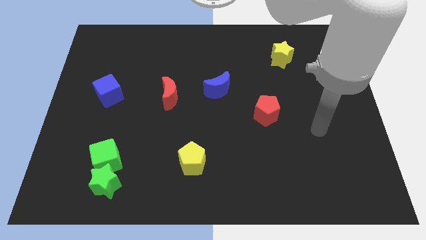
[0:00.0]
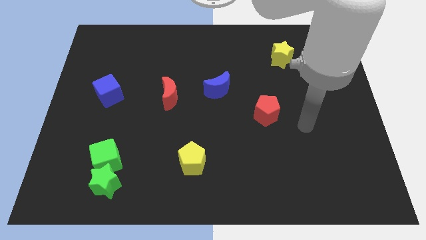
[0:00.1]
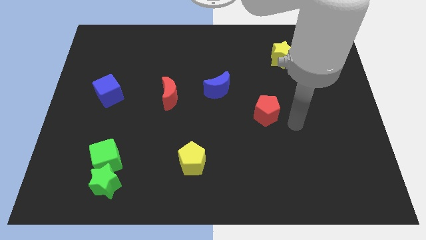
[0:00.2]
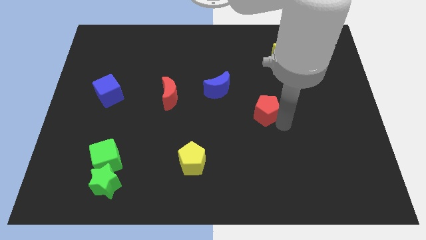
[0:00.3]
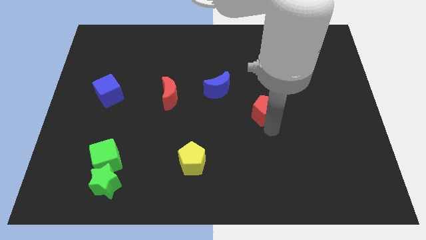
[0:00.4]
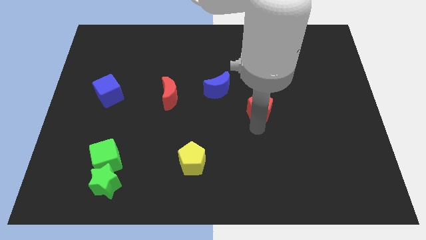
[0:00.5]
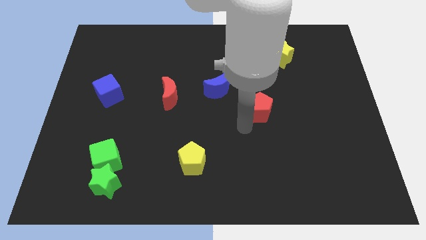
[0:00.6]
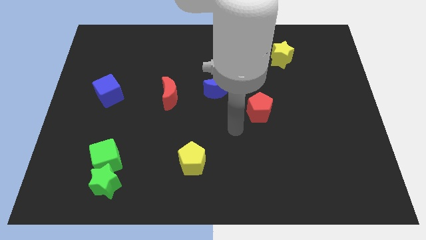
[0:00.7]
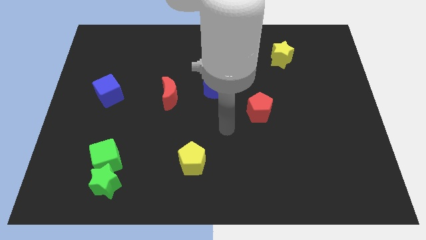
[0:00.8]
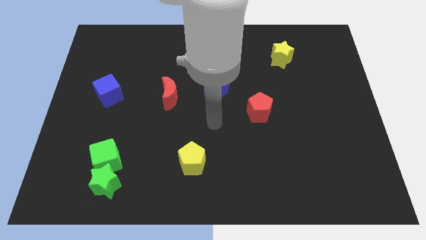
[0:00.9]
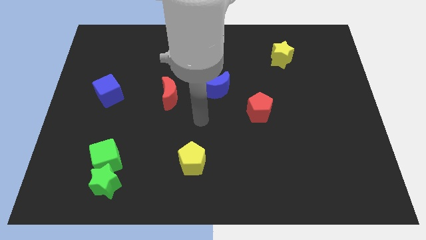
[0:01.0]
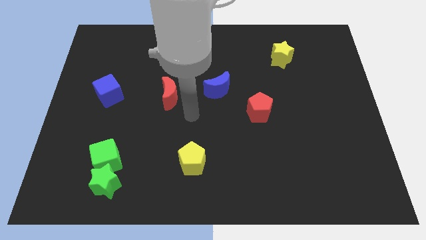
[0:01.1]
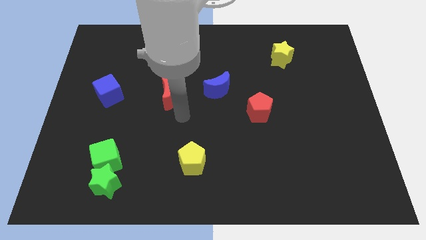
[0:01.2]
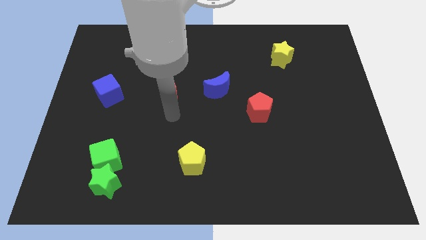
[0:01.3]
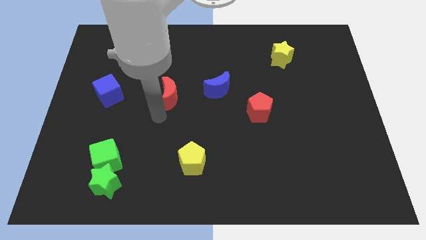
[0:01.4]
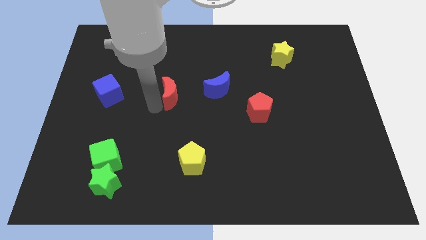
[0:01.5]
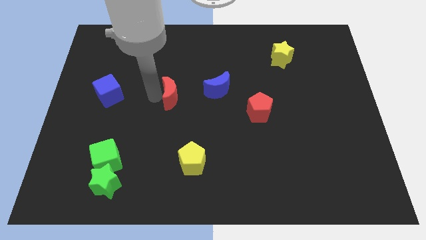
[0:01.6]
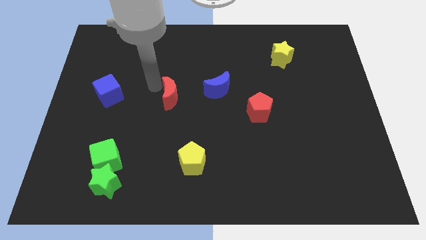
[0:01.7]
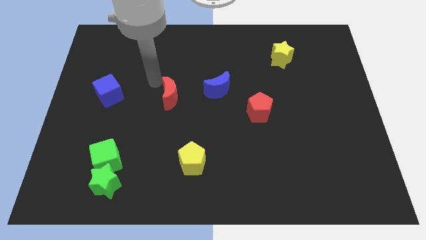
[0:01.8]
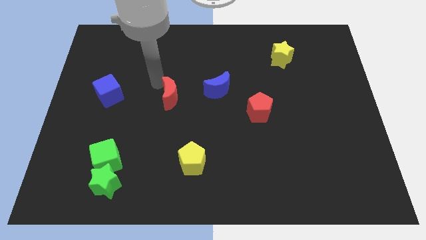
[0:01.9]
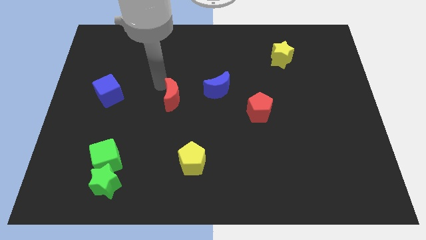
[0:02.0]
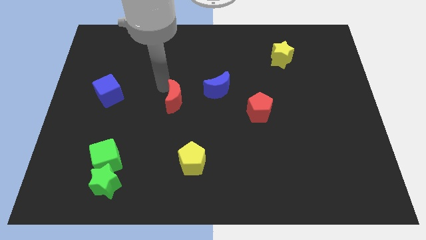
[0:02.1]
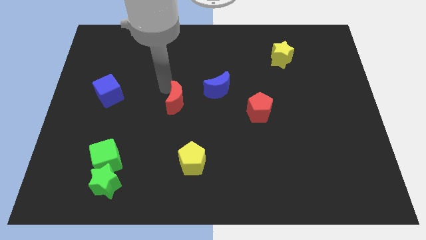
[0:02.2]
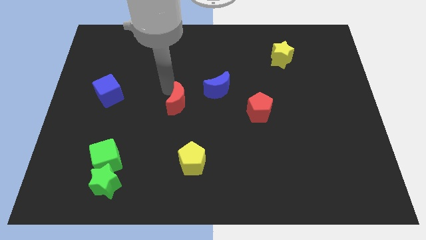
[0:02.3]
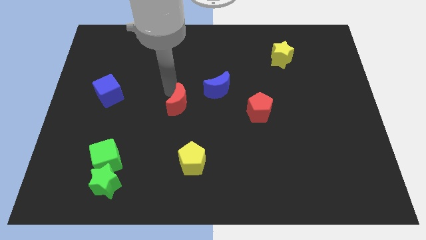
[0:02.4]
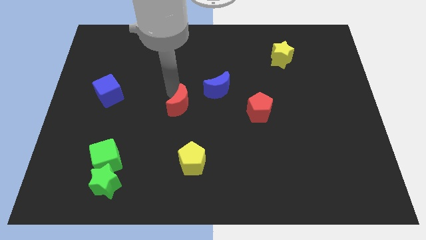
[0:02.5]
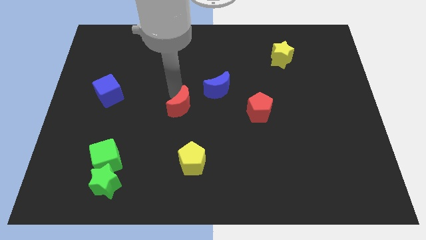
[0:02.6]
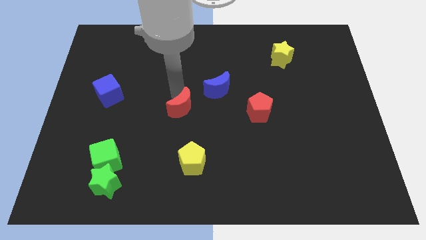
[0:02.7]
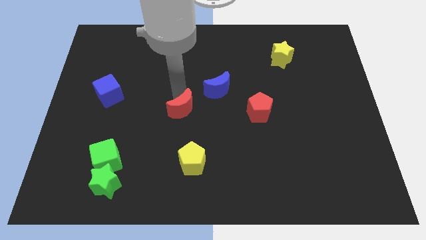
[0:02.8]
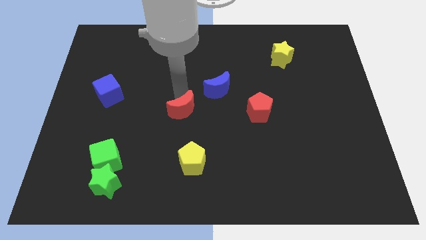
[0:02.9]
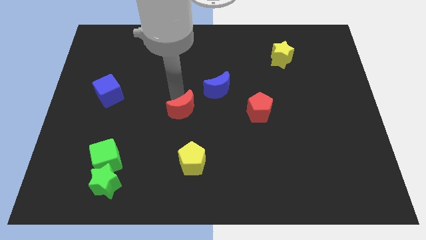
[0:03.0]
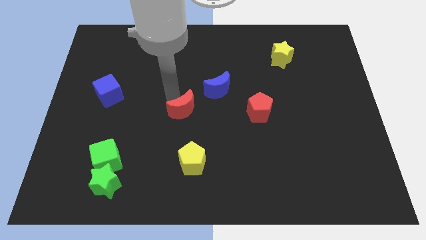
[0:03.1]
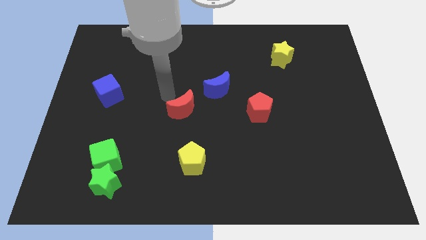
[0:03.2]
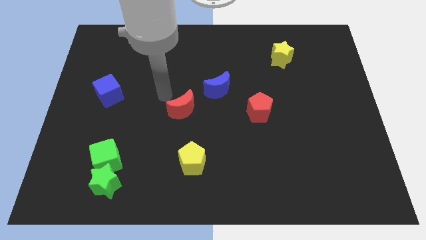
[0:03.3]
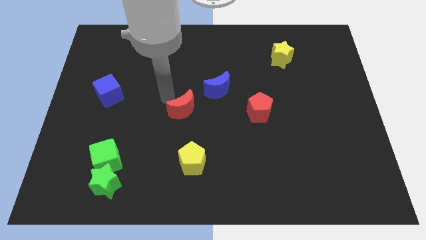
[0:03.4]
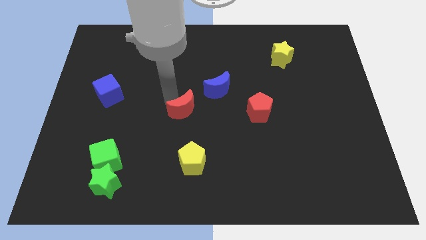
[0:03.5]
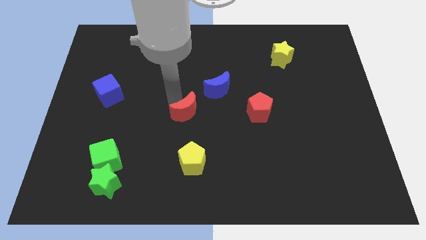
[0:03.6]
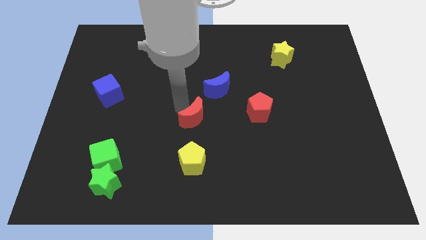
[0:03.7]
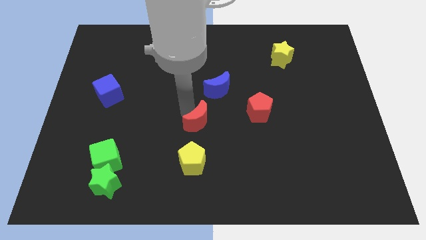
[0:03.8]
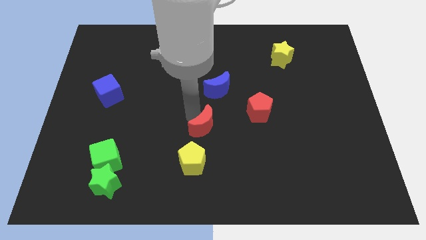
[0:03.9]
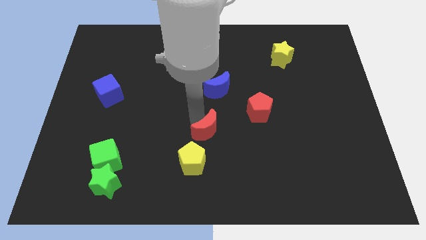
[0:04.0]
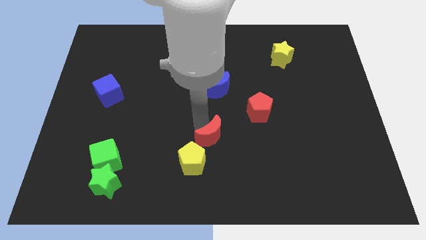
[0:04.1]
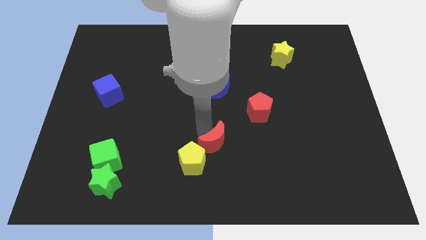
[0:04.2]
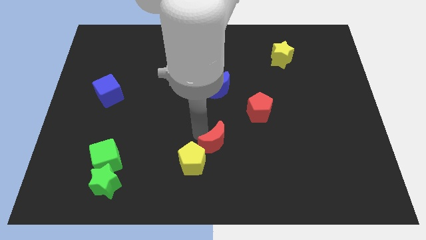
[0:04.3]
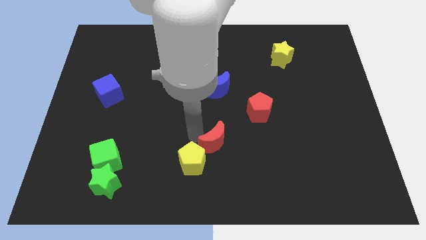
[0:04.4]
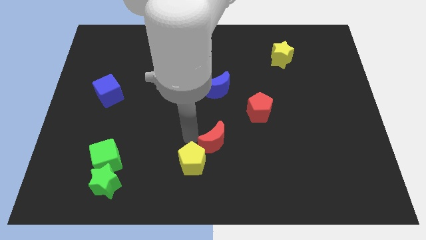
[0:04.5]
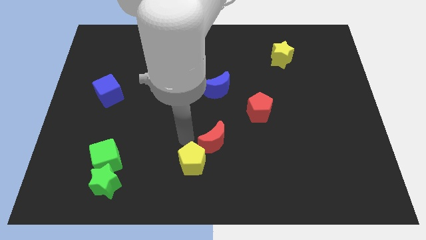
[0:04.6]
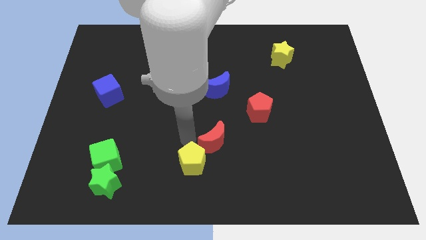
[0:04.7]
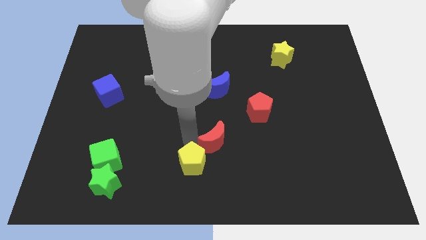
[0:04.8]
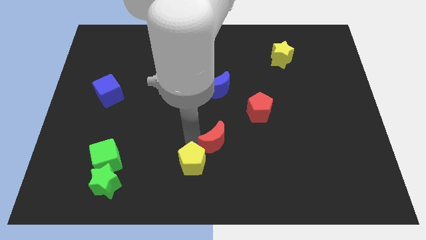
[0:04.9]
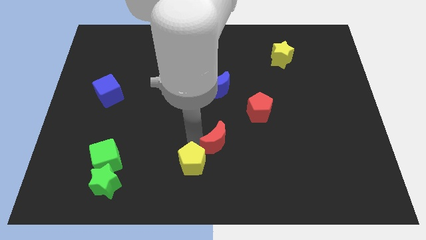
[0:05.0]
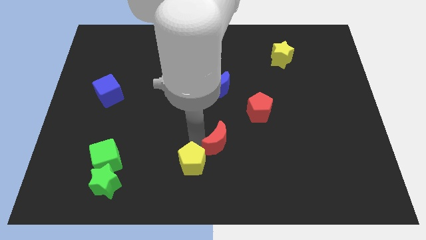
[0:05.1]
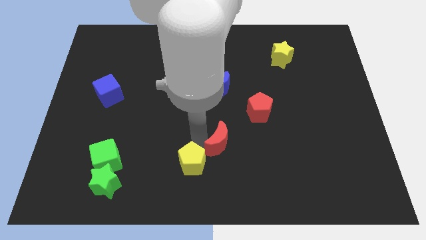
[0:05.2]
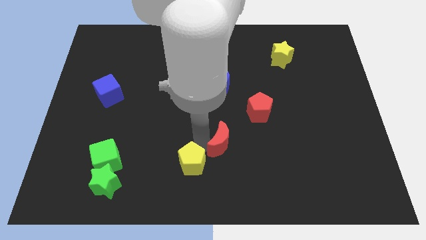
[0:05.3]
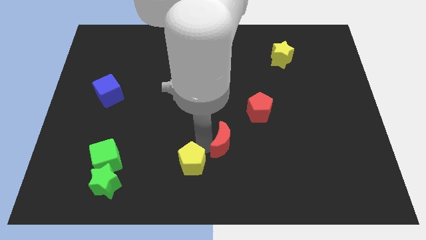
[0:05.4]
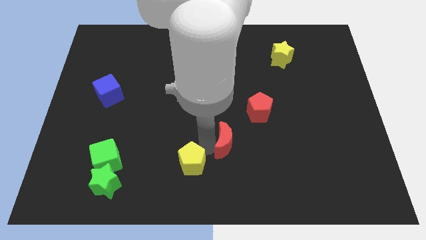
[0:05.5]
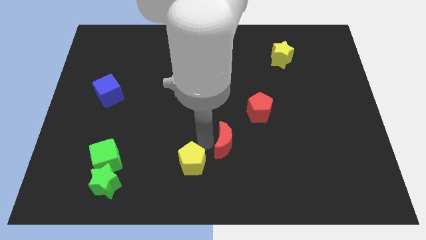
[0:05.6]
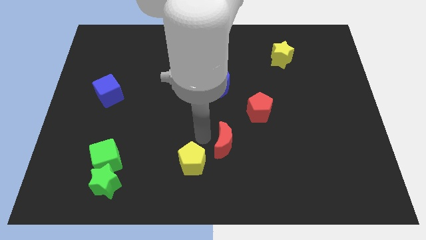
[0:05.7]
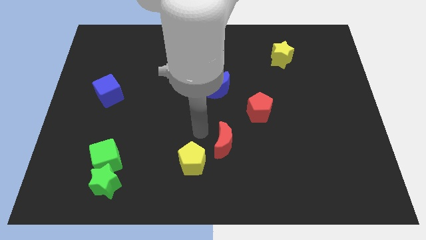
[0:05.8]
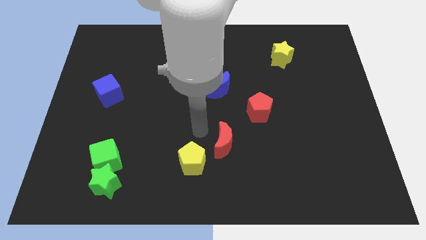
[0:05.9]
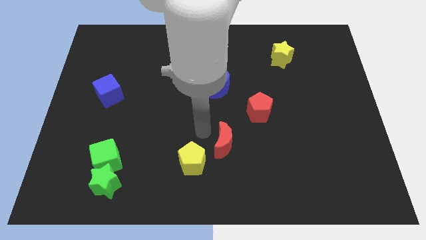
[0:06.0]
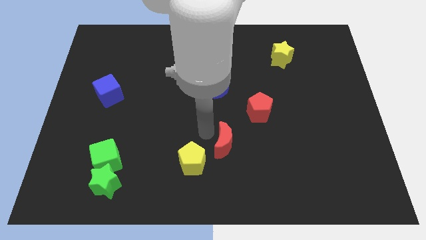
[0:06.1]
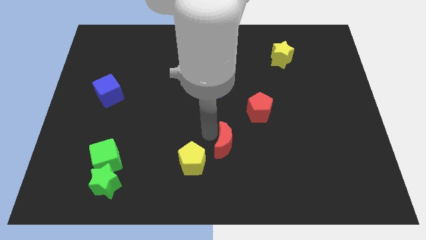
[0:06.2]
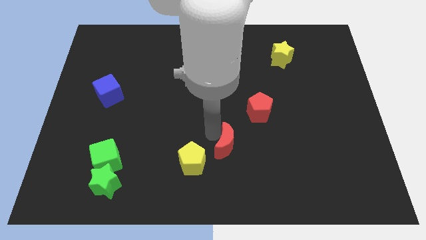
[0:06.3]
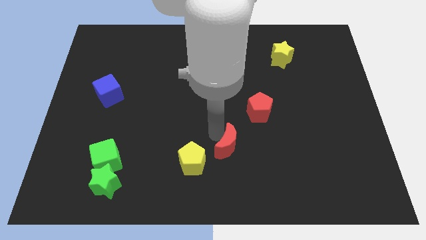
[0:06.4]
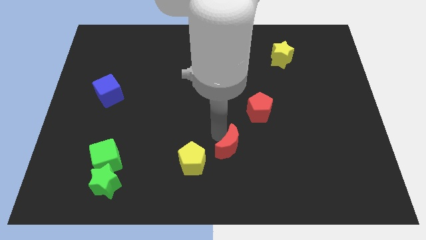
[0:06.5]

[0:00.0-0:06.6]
slide the red moon diagonally downwards and right

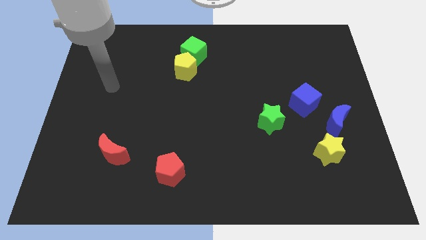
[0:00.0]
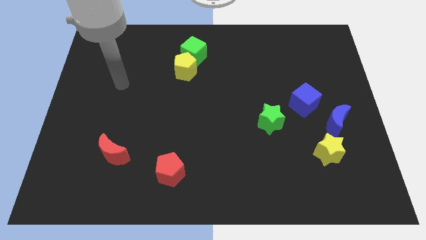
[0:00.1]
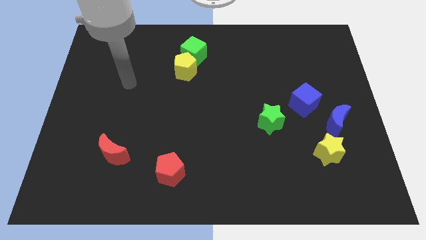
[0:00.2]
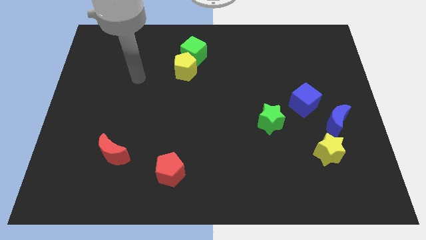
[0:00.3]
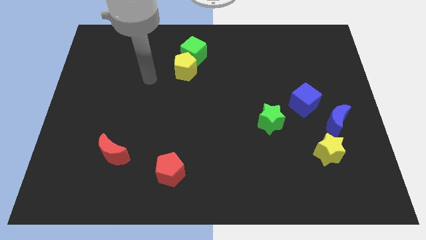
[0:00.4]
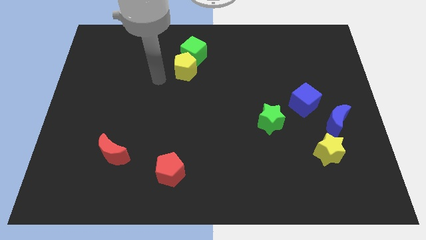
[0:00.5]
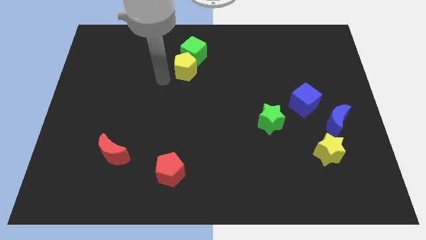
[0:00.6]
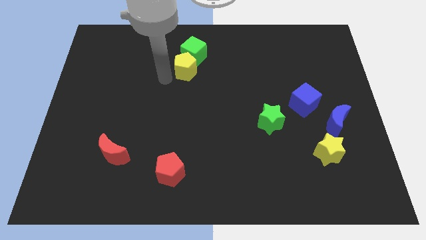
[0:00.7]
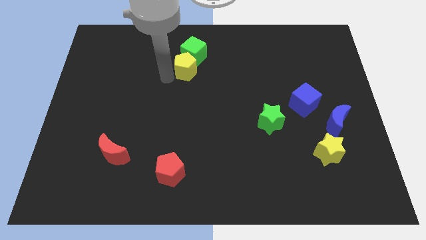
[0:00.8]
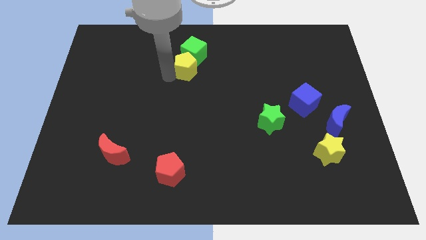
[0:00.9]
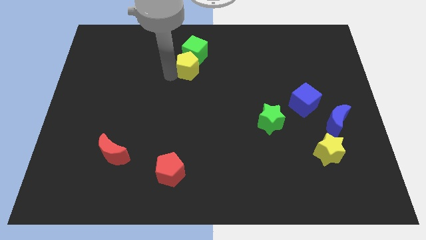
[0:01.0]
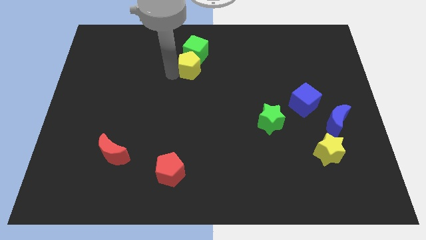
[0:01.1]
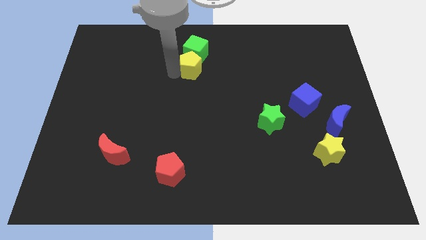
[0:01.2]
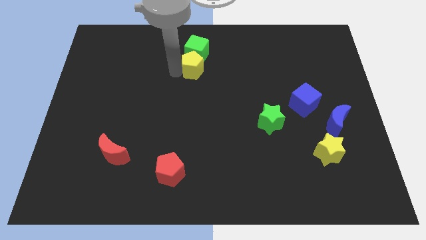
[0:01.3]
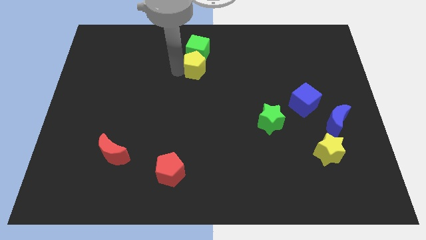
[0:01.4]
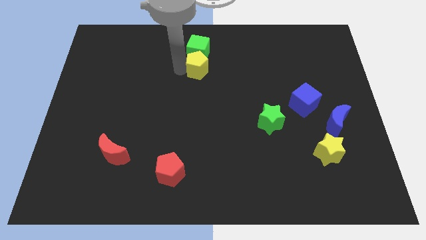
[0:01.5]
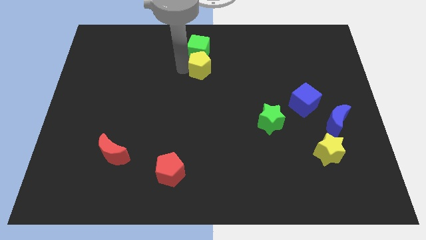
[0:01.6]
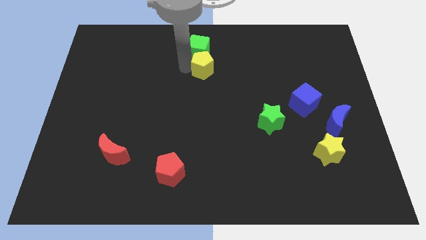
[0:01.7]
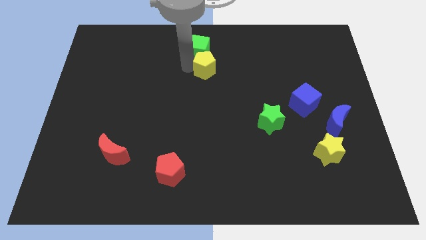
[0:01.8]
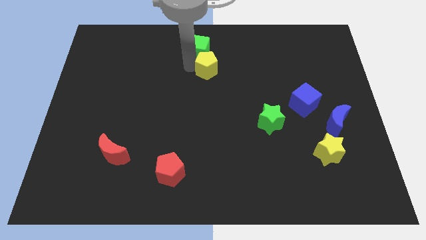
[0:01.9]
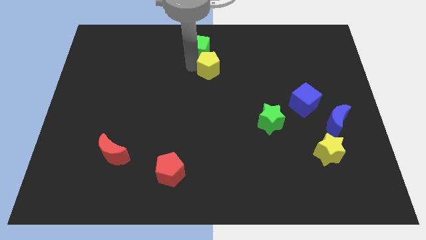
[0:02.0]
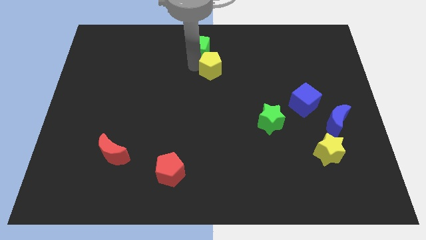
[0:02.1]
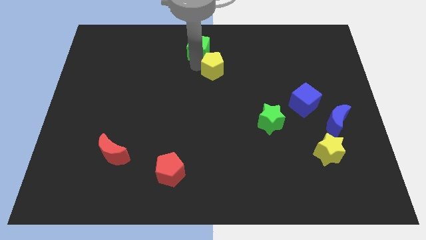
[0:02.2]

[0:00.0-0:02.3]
move the yellow pentagon to the right a little
